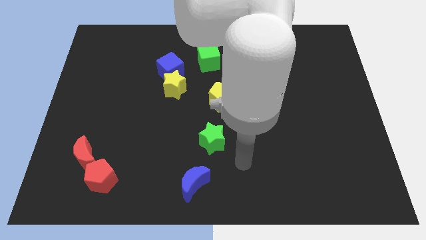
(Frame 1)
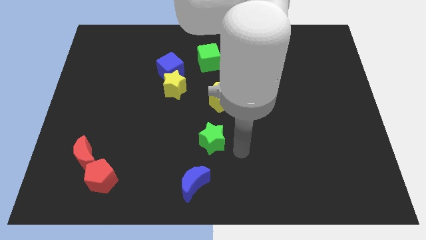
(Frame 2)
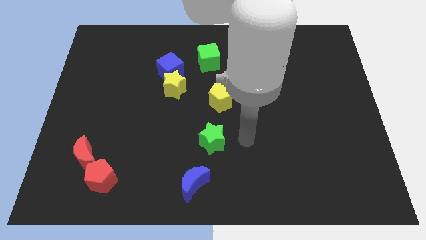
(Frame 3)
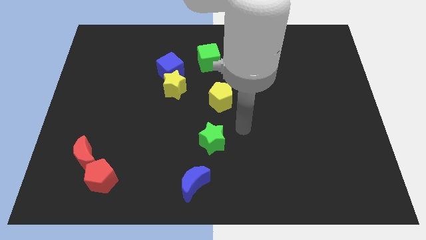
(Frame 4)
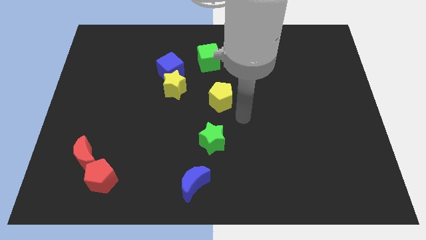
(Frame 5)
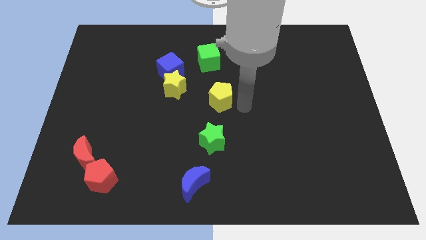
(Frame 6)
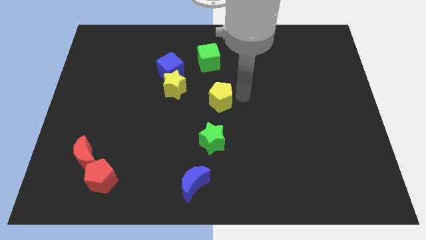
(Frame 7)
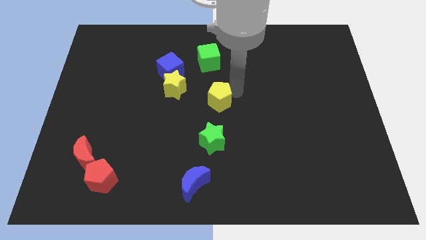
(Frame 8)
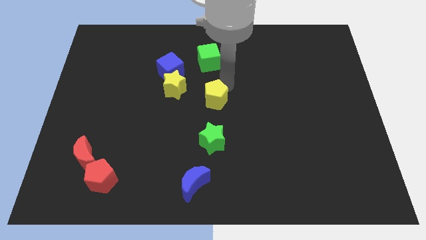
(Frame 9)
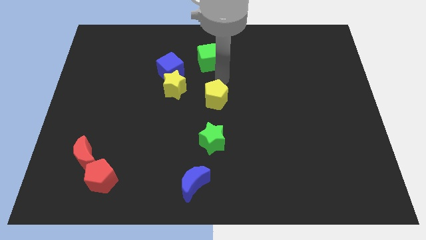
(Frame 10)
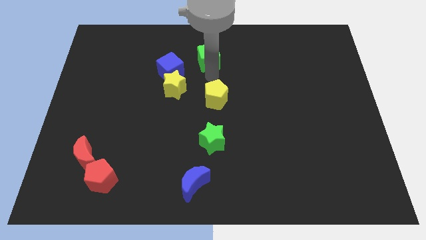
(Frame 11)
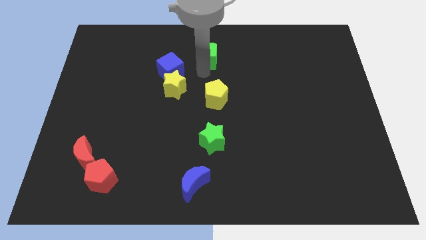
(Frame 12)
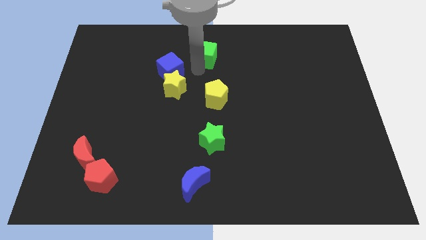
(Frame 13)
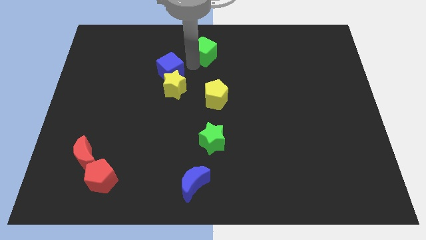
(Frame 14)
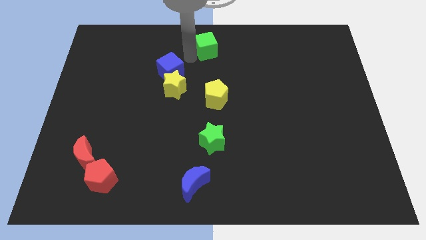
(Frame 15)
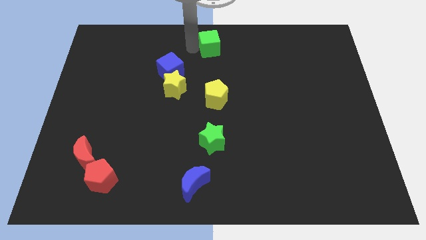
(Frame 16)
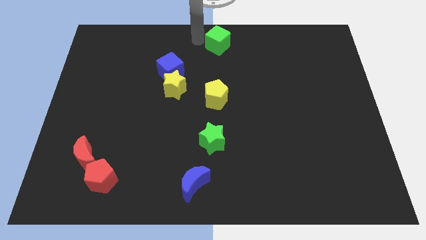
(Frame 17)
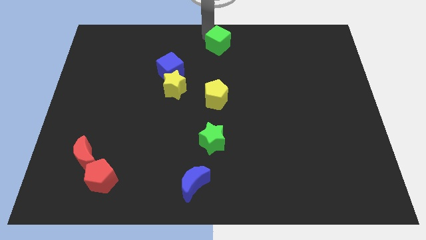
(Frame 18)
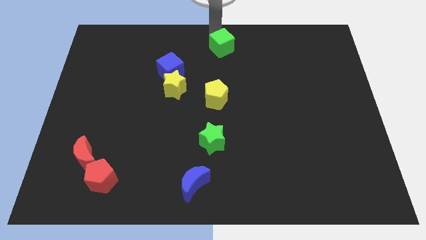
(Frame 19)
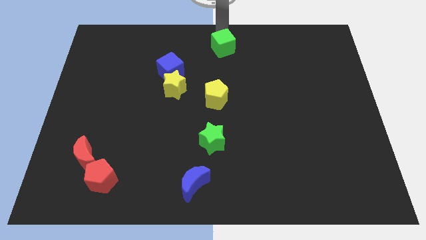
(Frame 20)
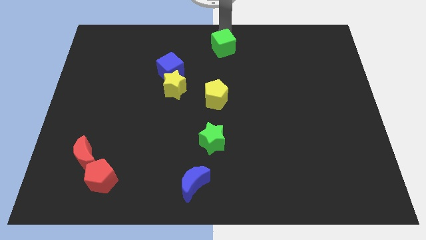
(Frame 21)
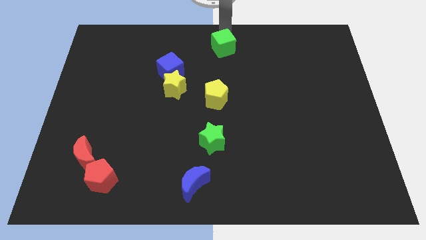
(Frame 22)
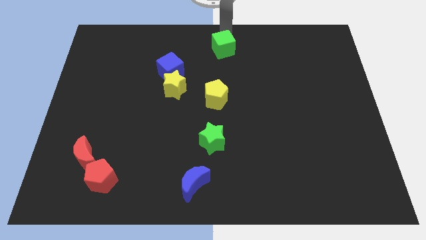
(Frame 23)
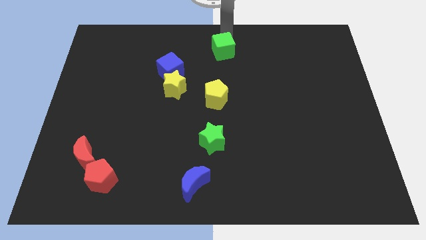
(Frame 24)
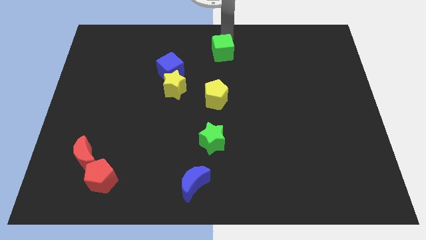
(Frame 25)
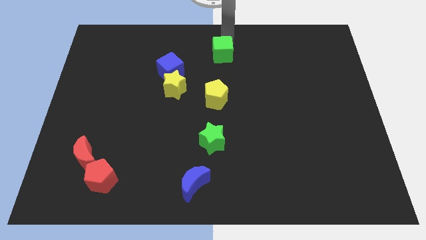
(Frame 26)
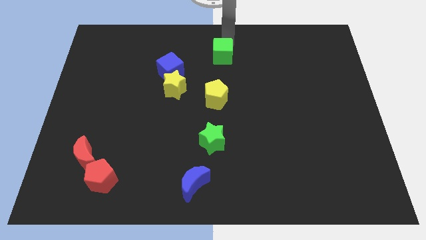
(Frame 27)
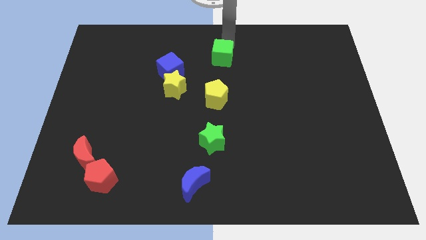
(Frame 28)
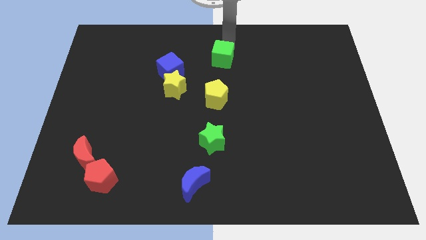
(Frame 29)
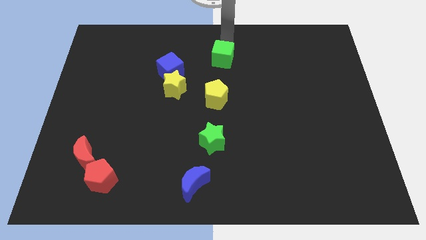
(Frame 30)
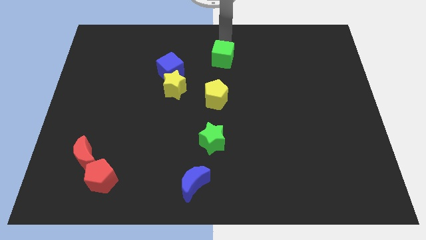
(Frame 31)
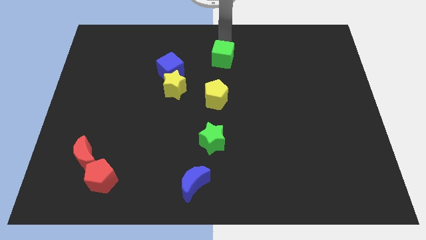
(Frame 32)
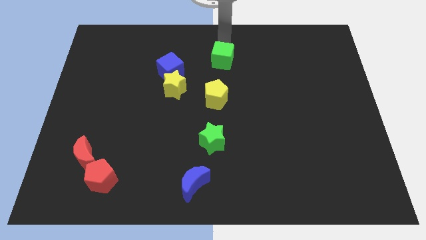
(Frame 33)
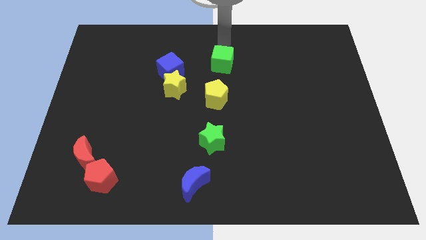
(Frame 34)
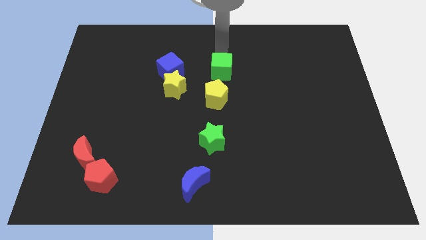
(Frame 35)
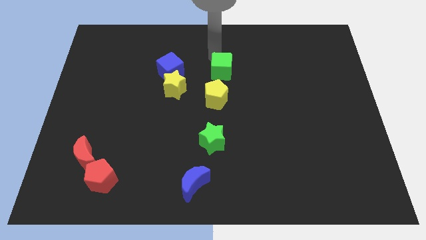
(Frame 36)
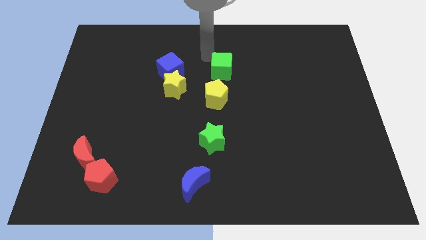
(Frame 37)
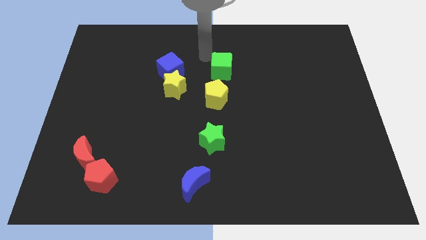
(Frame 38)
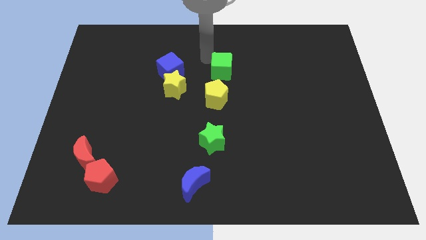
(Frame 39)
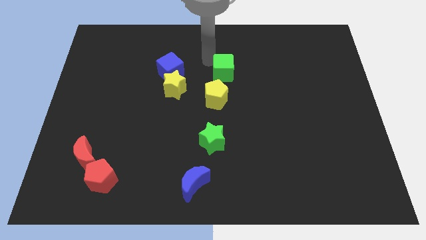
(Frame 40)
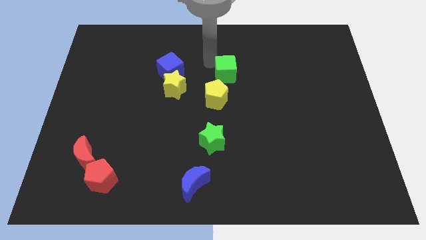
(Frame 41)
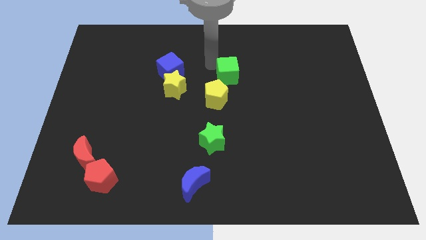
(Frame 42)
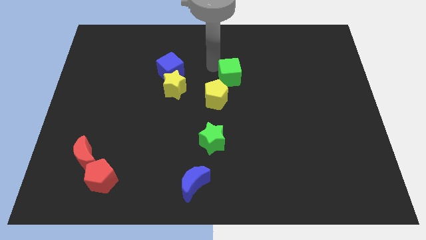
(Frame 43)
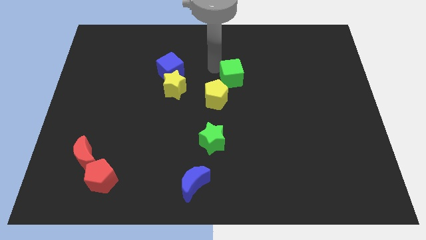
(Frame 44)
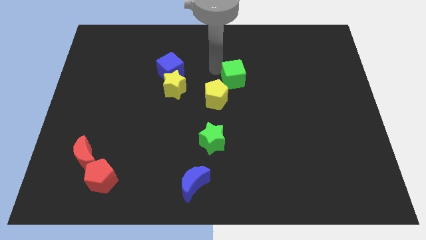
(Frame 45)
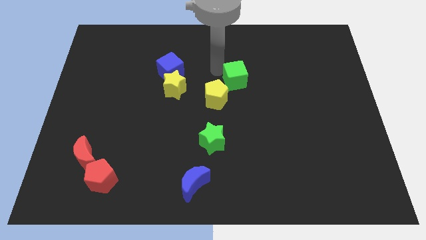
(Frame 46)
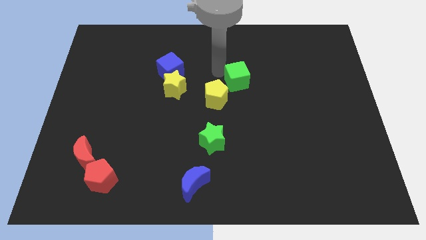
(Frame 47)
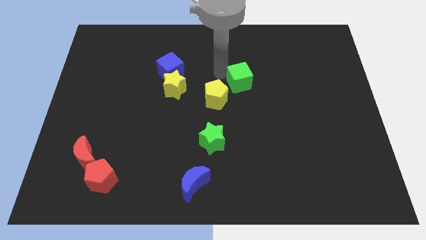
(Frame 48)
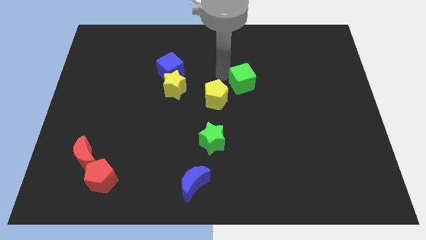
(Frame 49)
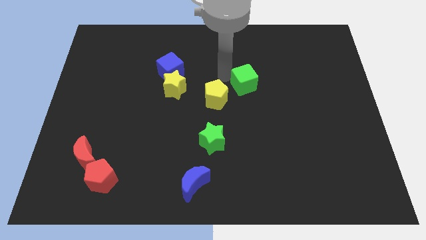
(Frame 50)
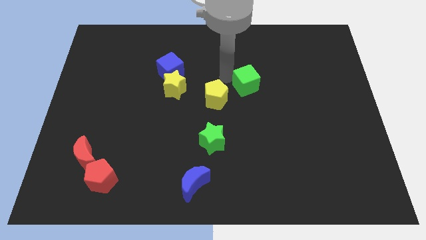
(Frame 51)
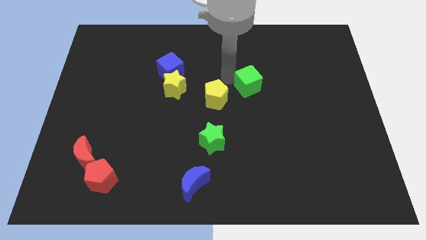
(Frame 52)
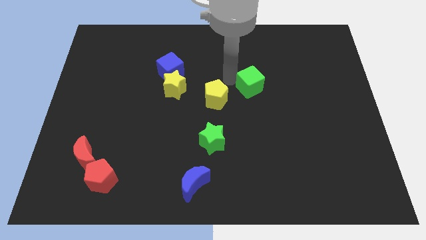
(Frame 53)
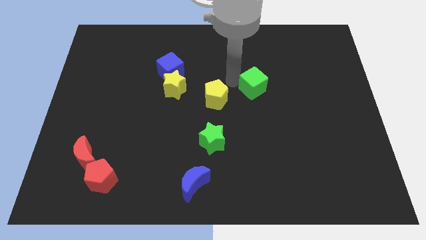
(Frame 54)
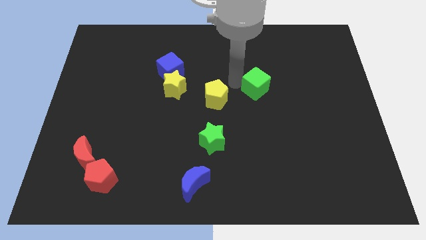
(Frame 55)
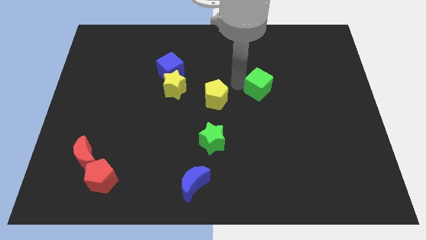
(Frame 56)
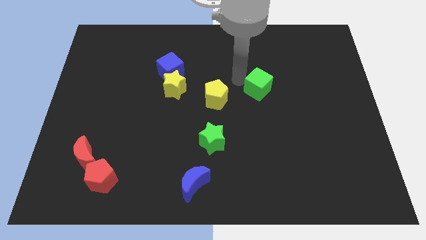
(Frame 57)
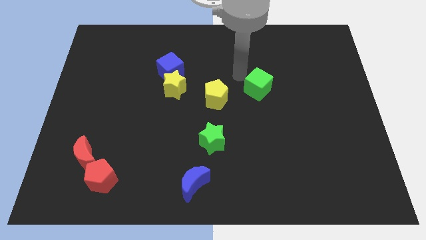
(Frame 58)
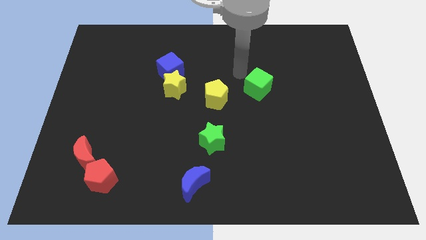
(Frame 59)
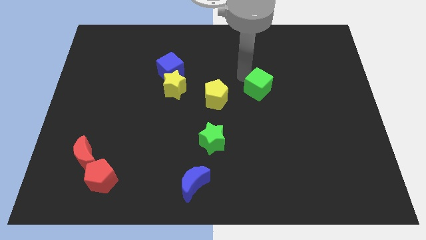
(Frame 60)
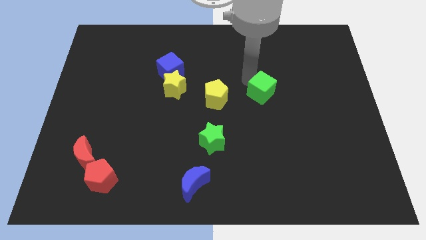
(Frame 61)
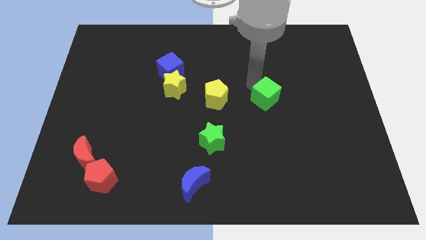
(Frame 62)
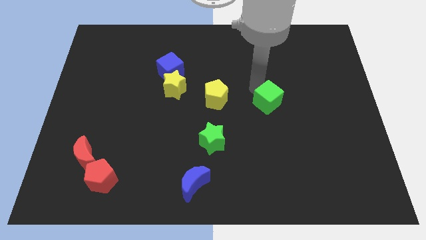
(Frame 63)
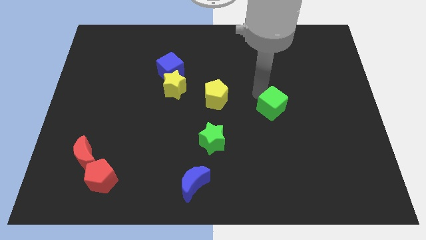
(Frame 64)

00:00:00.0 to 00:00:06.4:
move the green cube downwards and right

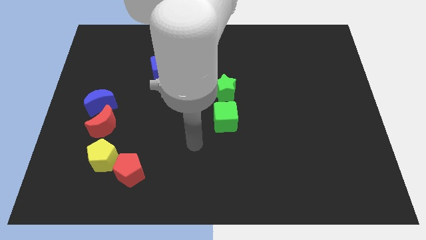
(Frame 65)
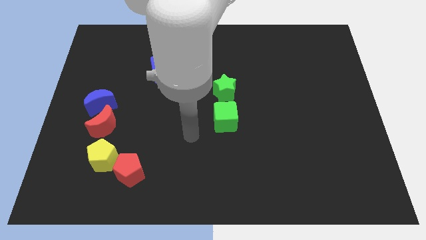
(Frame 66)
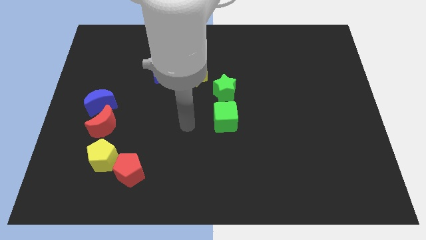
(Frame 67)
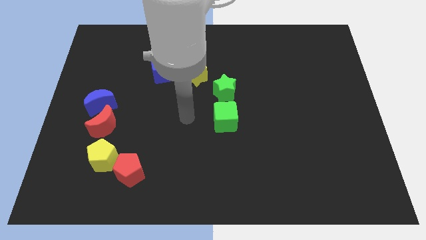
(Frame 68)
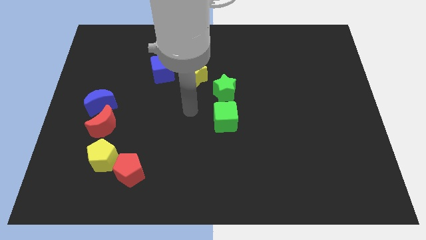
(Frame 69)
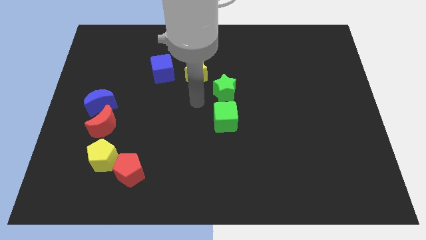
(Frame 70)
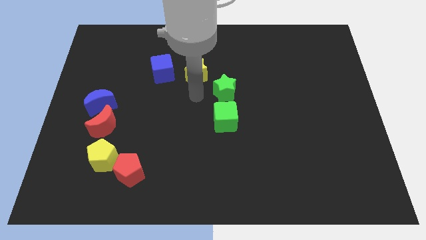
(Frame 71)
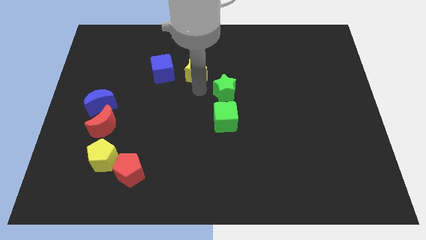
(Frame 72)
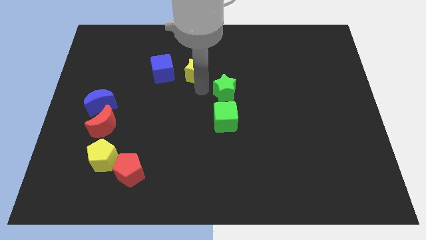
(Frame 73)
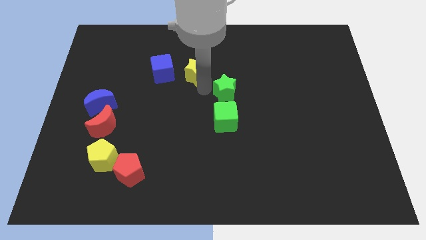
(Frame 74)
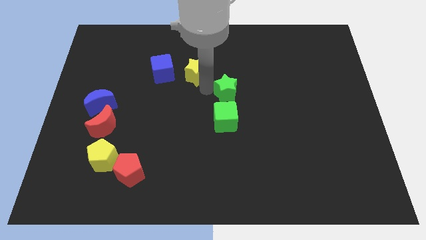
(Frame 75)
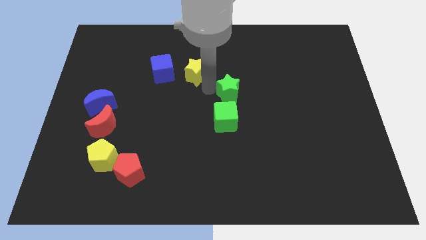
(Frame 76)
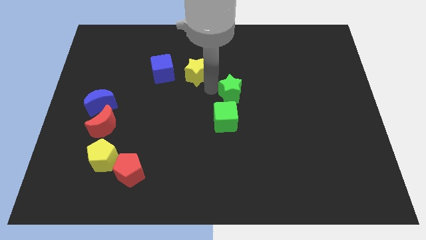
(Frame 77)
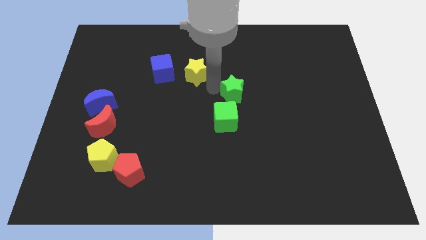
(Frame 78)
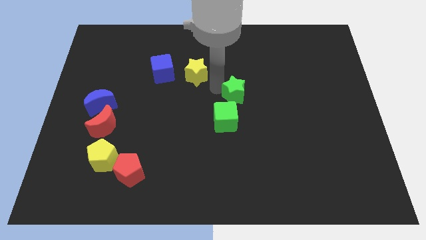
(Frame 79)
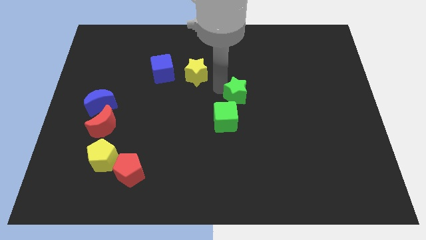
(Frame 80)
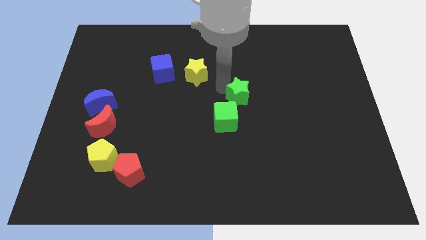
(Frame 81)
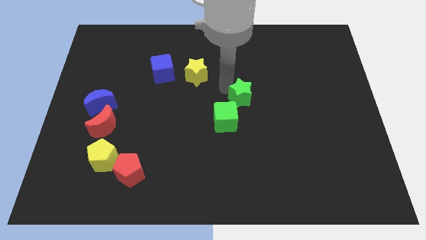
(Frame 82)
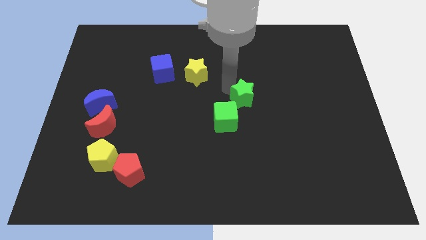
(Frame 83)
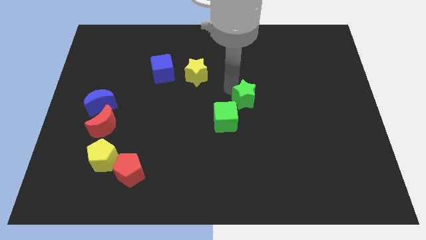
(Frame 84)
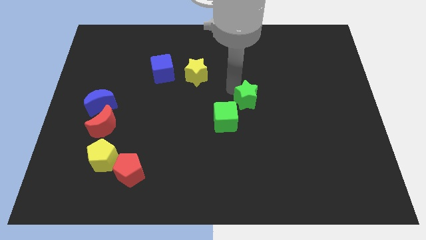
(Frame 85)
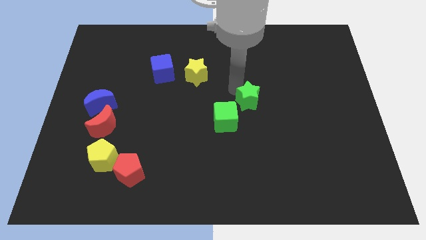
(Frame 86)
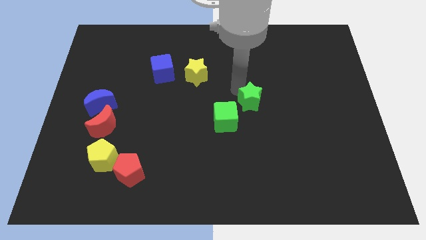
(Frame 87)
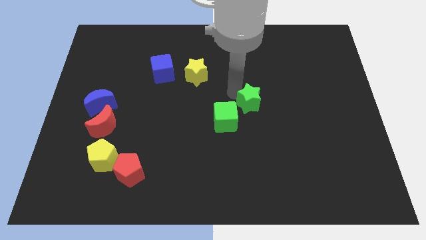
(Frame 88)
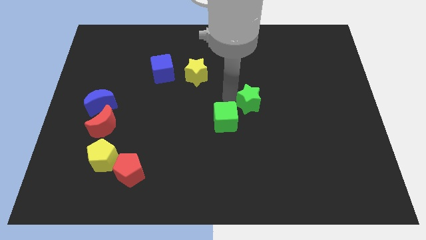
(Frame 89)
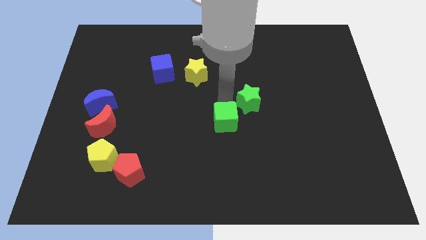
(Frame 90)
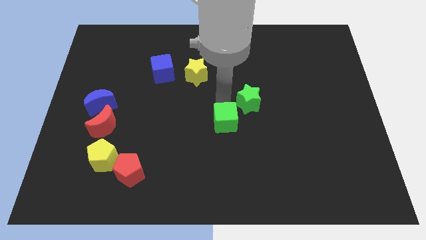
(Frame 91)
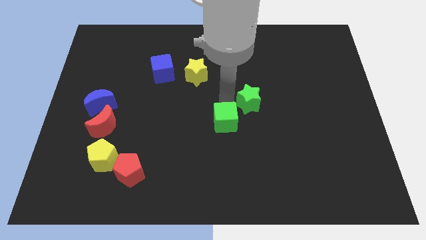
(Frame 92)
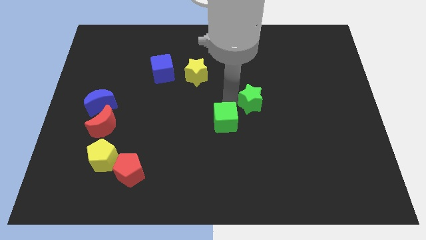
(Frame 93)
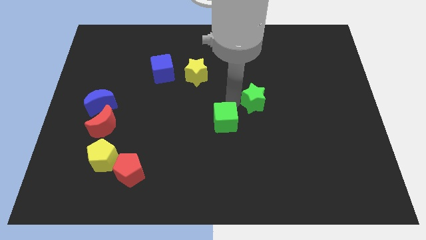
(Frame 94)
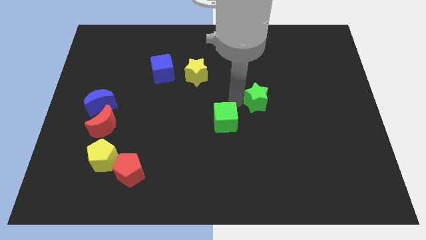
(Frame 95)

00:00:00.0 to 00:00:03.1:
slide the green star to the right slightly
